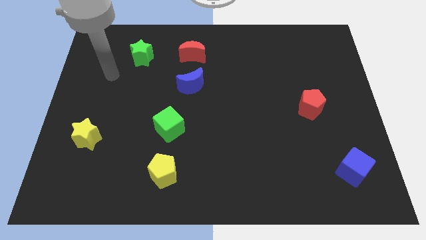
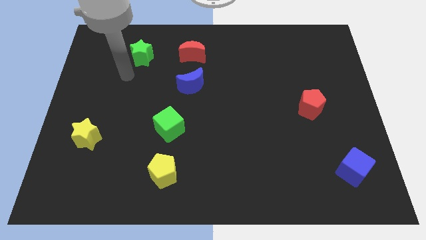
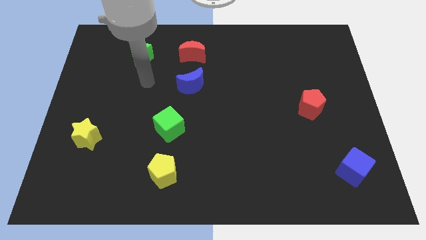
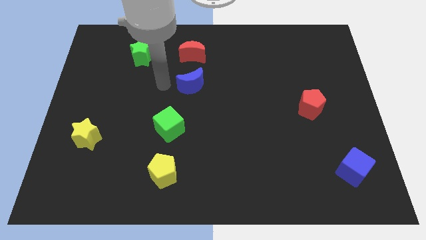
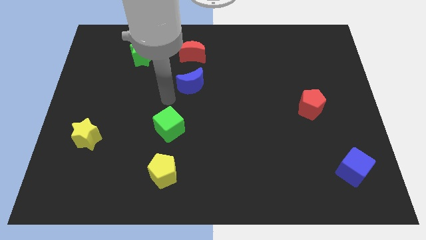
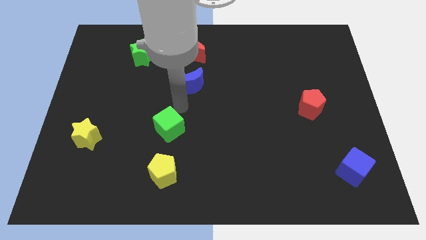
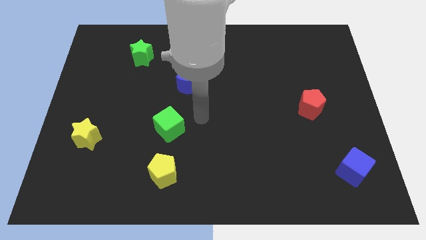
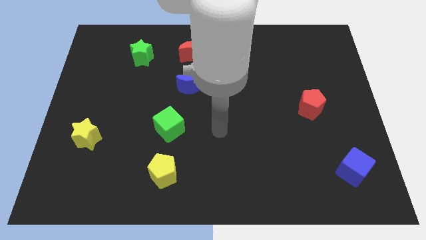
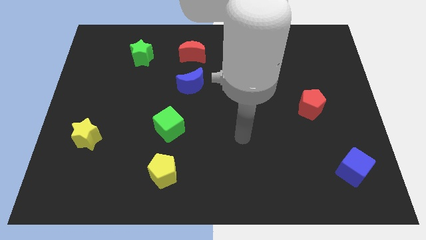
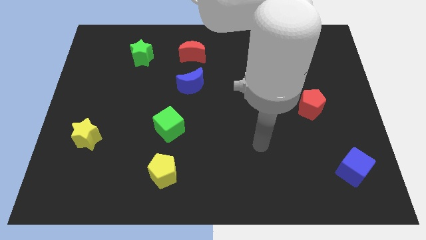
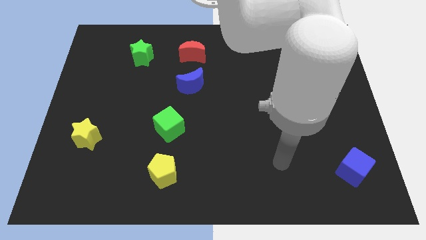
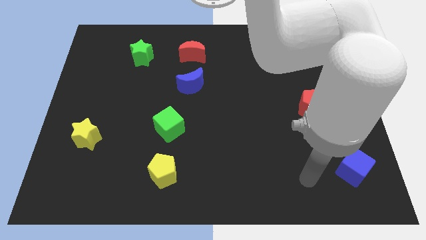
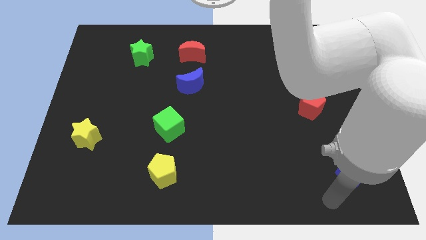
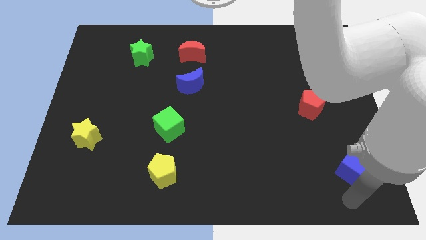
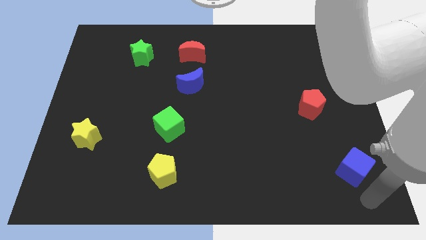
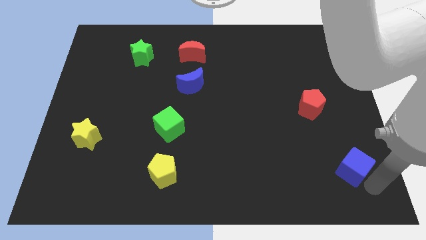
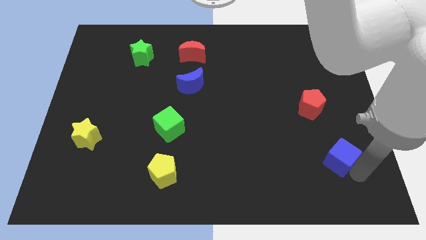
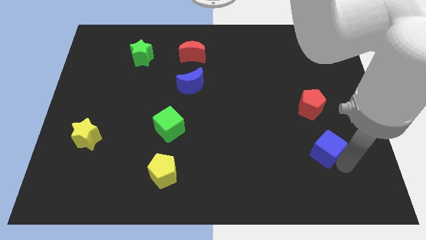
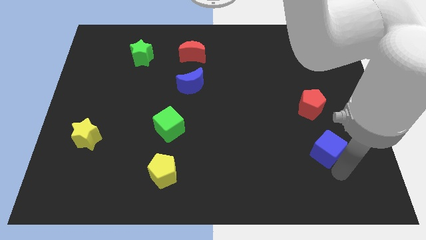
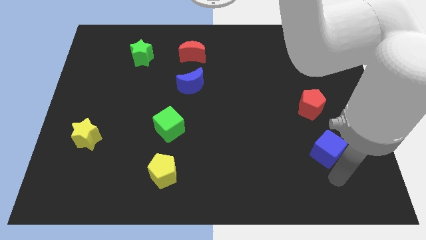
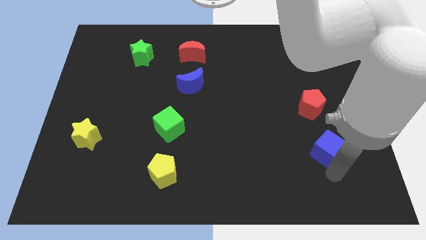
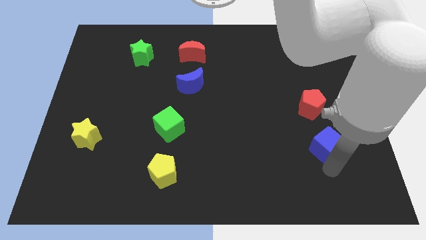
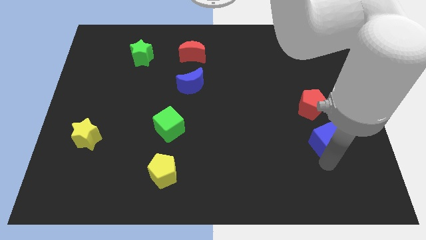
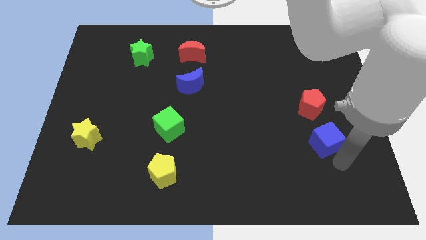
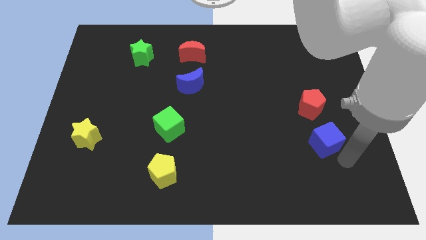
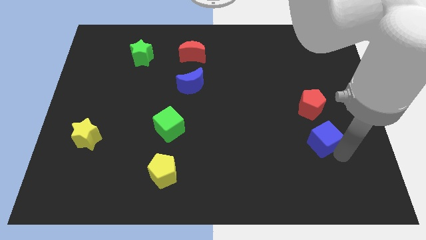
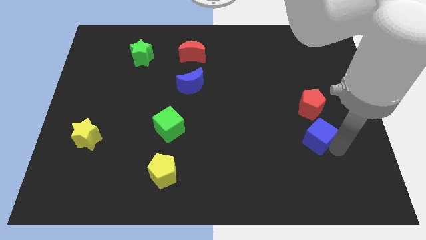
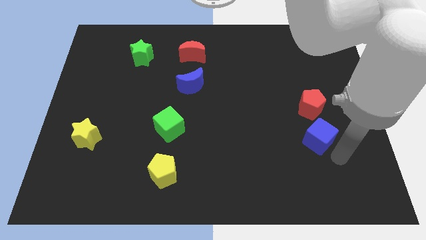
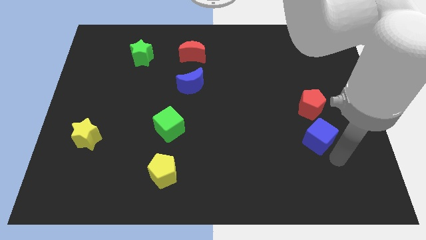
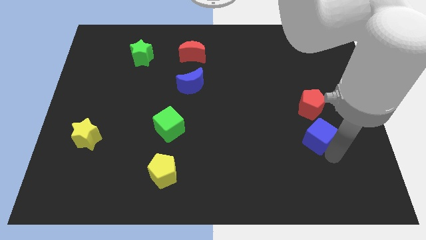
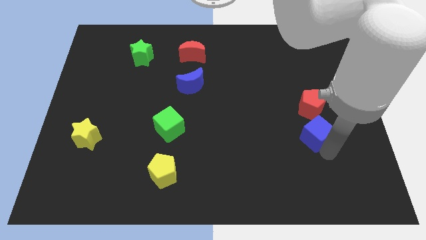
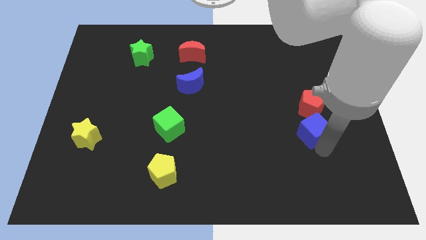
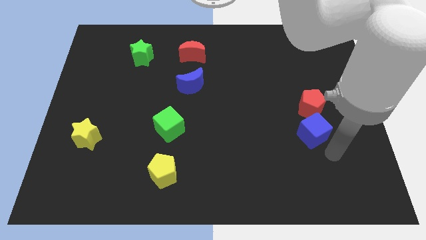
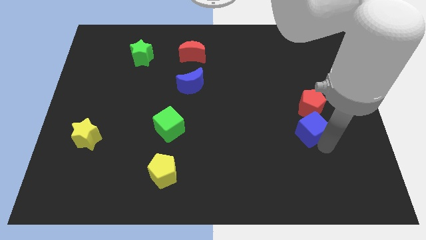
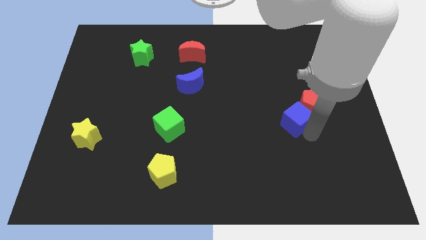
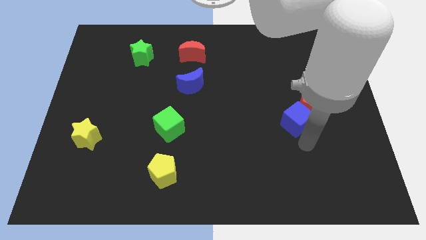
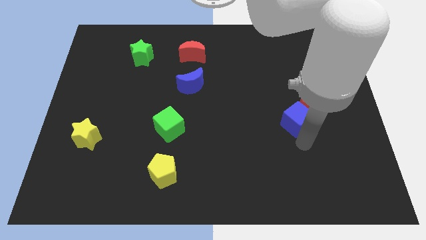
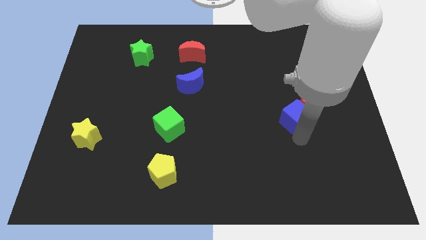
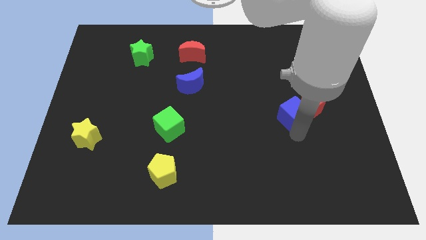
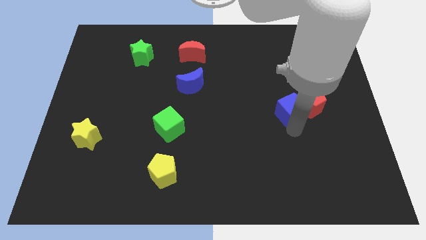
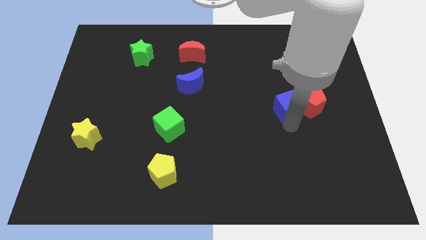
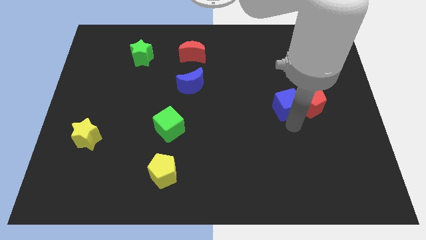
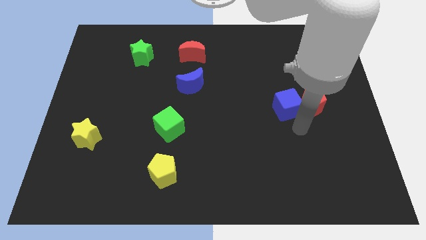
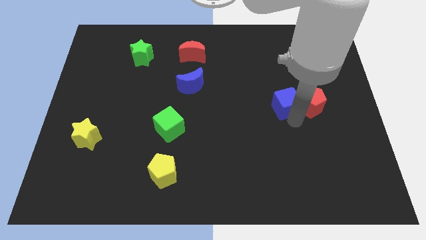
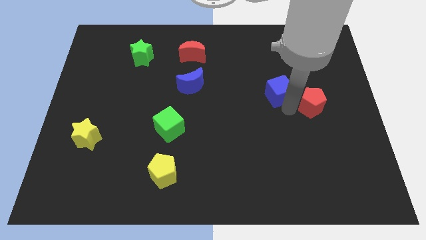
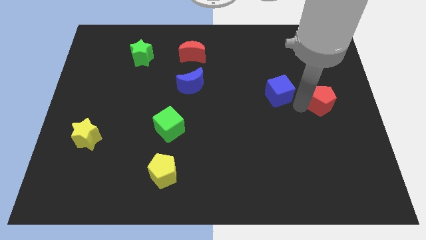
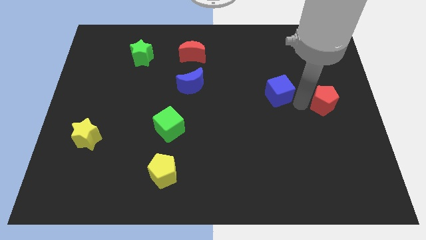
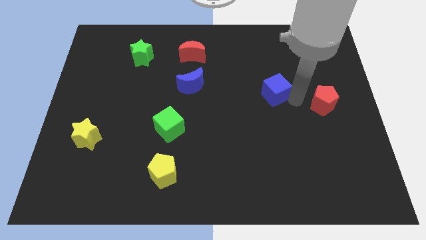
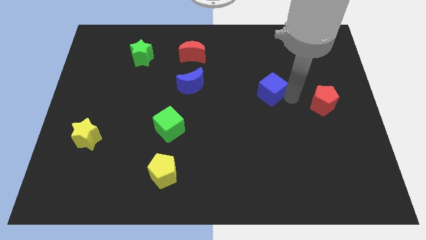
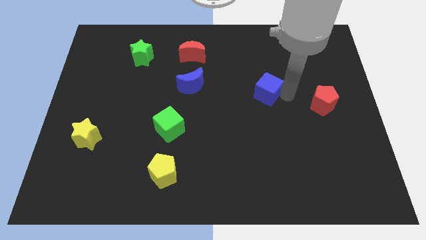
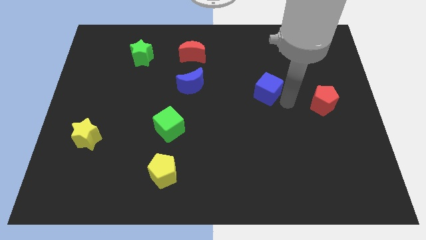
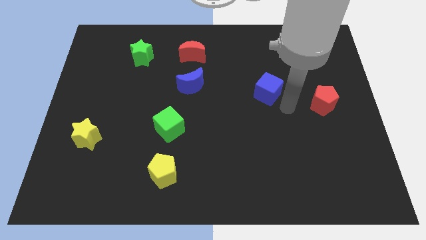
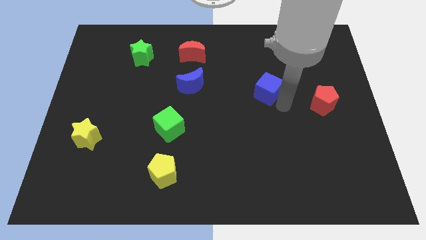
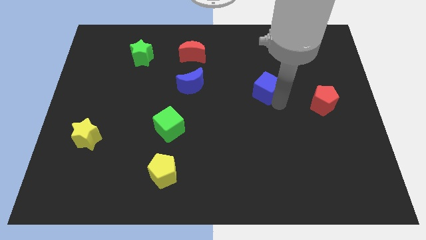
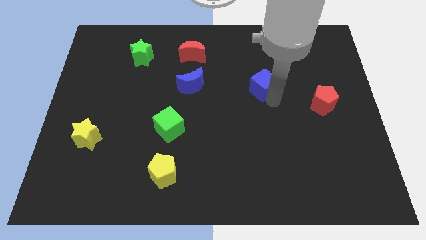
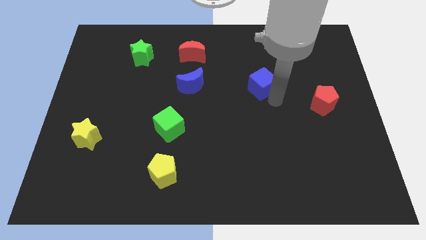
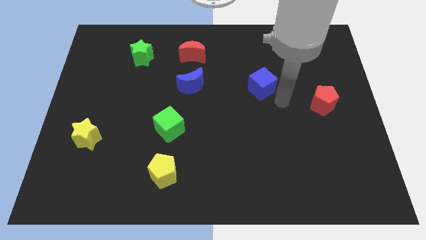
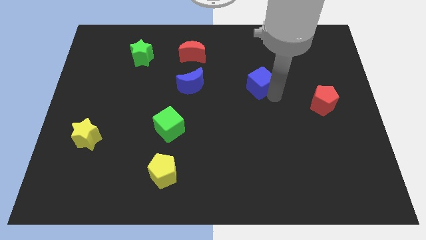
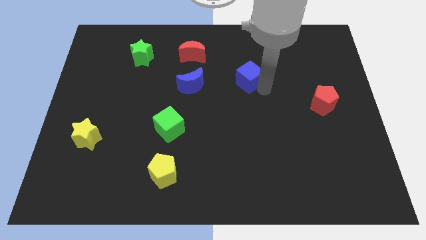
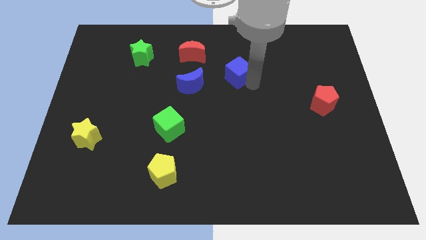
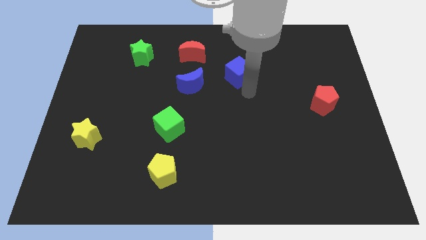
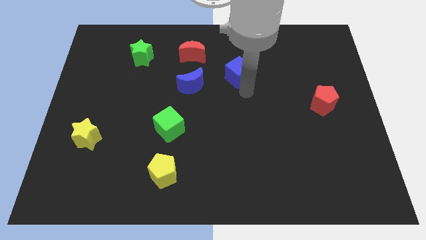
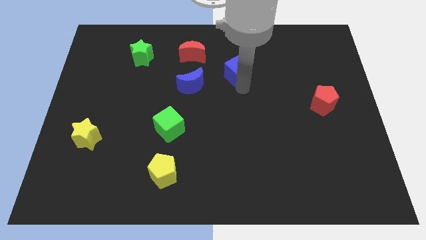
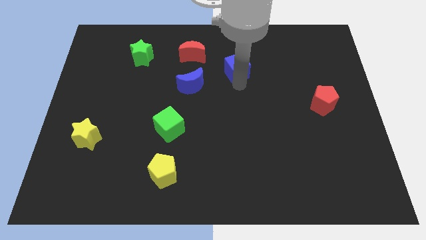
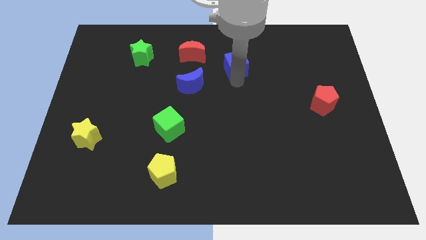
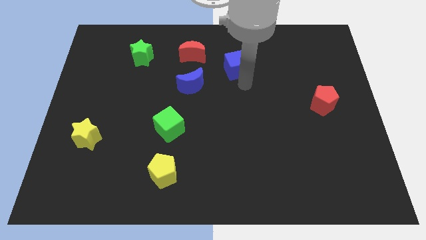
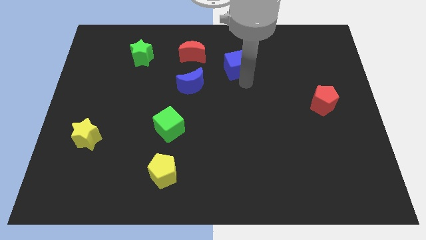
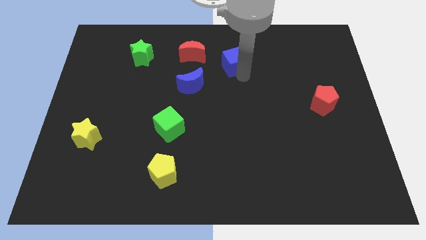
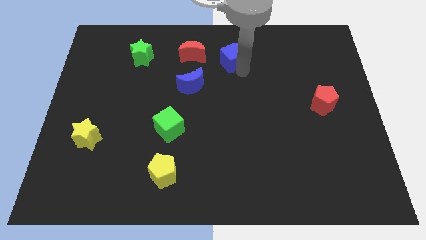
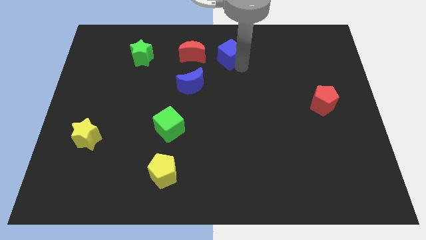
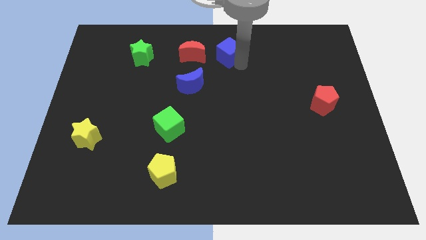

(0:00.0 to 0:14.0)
slide the blue cube to the towards your base

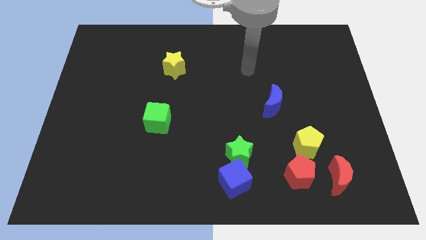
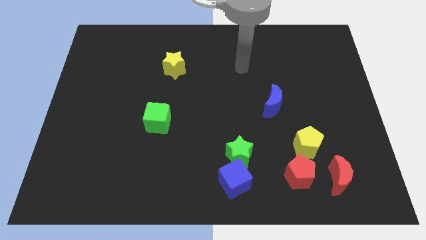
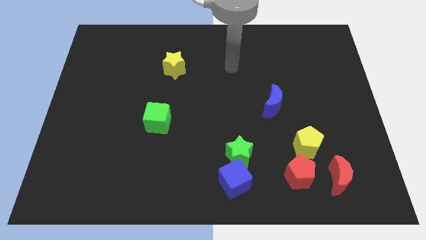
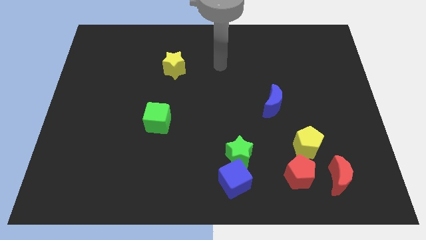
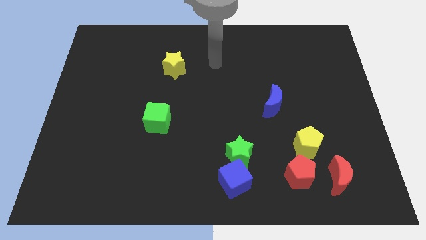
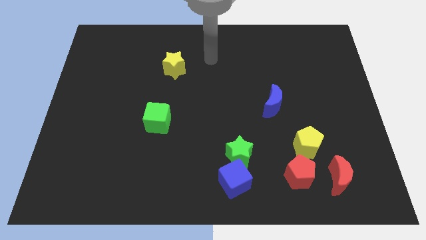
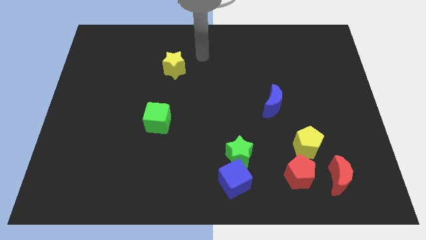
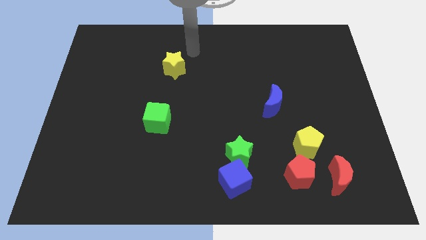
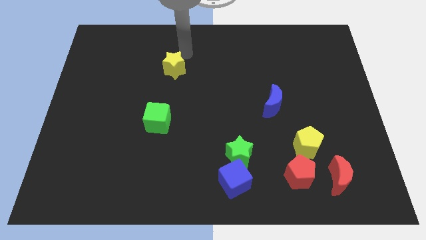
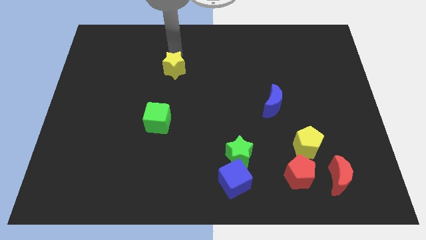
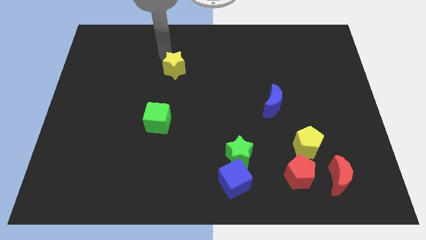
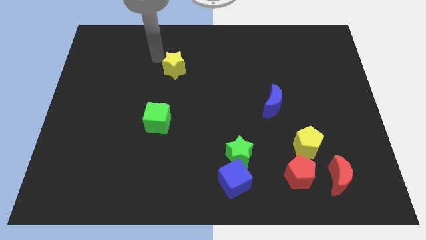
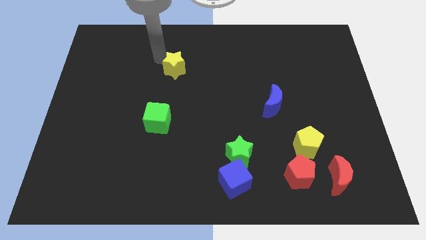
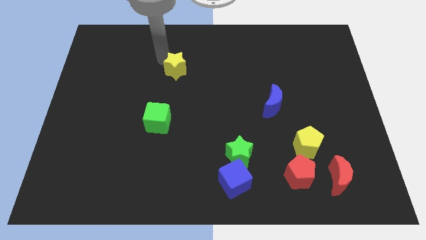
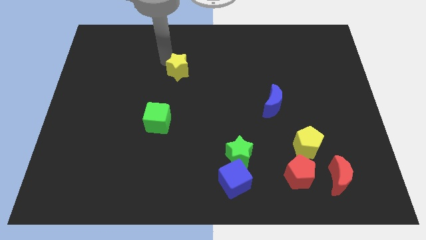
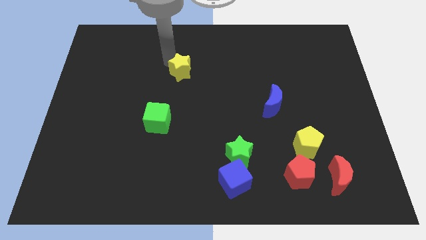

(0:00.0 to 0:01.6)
push the yellow star to the middle of the board
